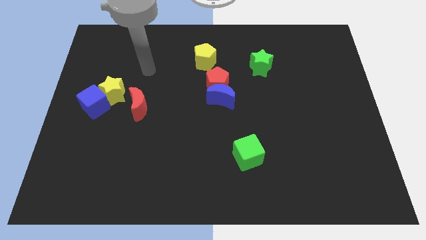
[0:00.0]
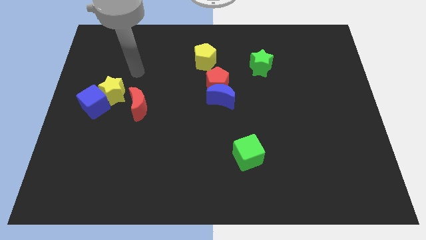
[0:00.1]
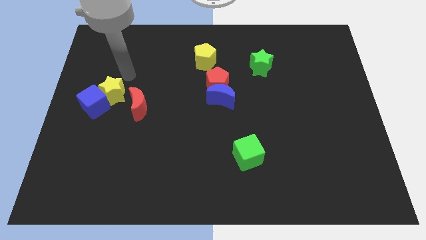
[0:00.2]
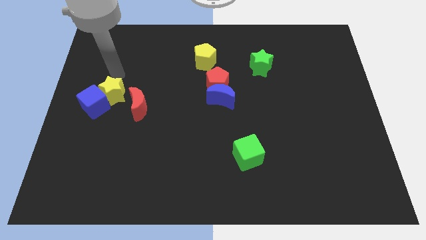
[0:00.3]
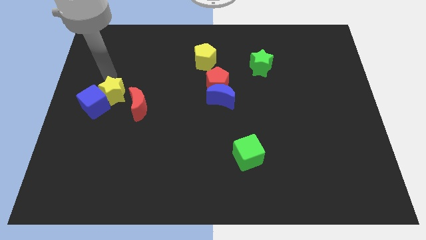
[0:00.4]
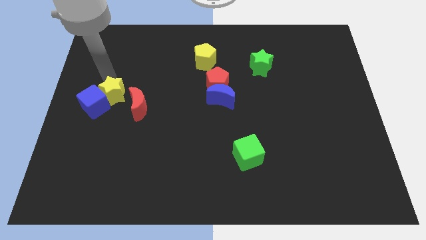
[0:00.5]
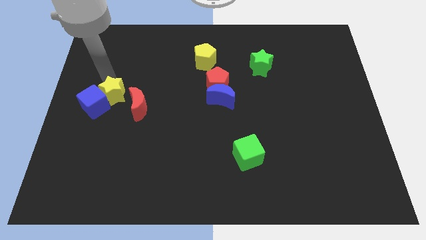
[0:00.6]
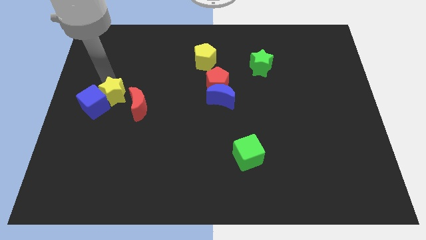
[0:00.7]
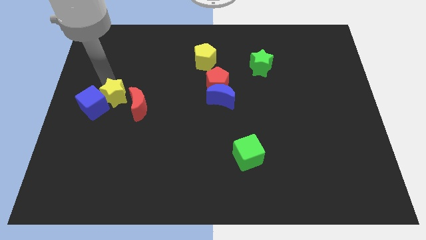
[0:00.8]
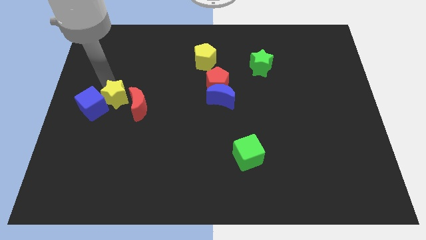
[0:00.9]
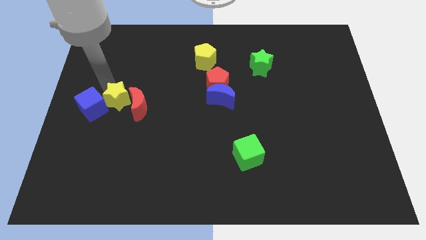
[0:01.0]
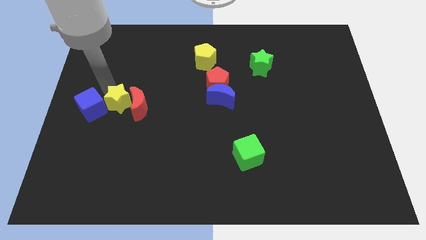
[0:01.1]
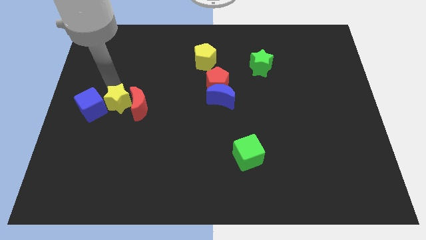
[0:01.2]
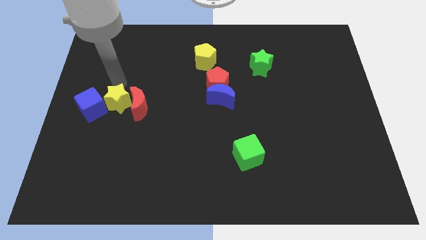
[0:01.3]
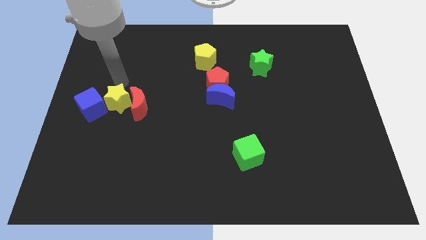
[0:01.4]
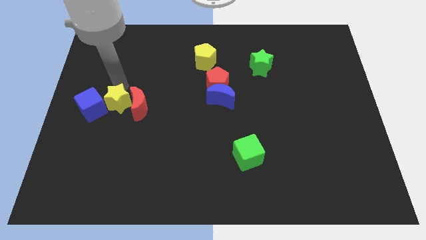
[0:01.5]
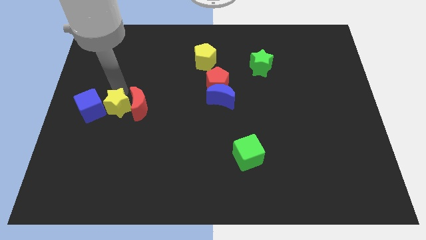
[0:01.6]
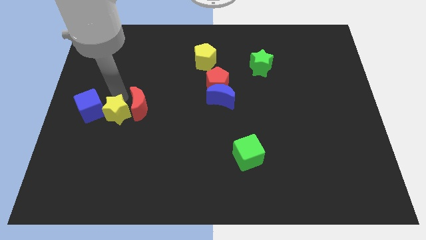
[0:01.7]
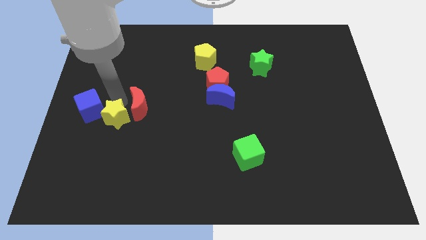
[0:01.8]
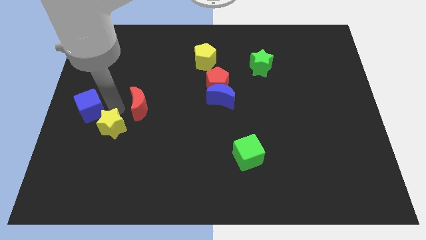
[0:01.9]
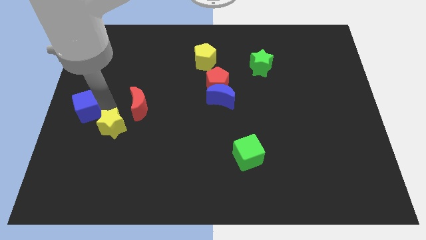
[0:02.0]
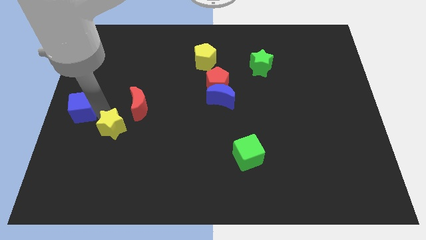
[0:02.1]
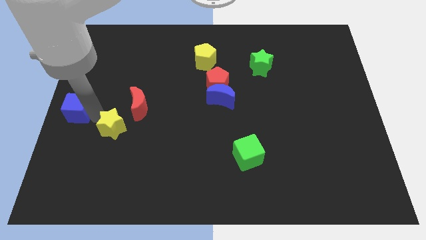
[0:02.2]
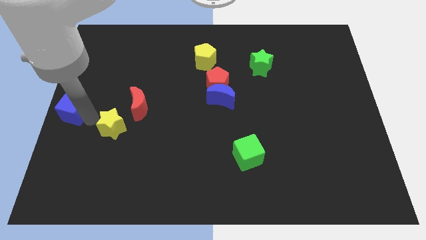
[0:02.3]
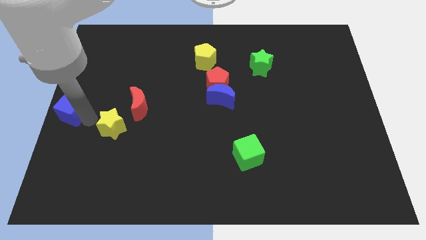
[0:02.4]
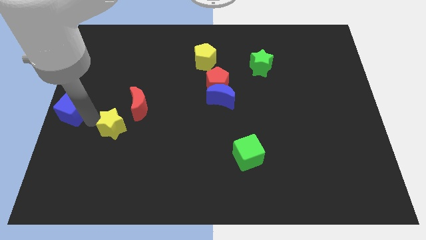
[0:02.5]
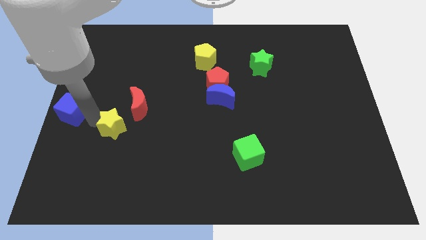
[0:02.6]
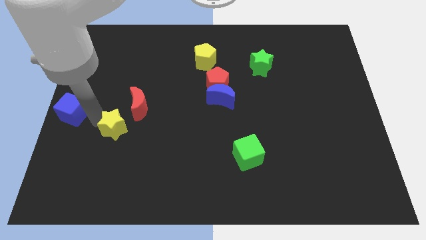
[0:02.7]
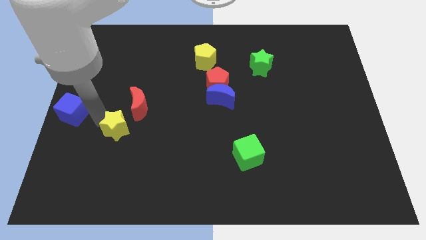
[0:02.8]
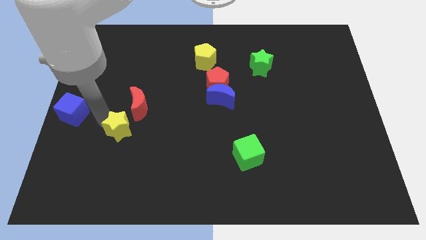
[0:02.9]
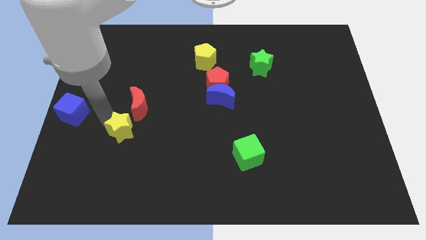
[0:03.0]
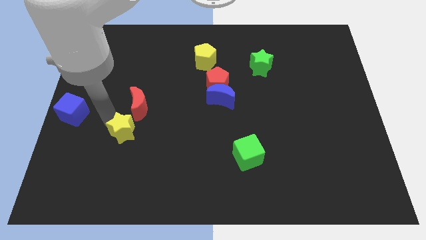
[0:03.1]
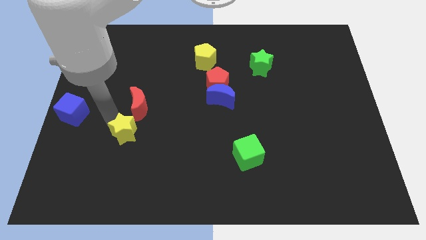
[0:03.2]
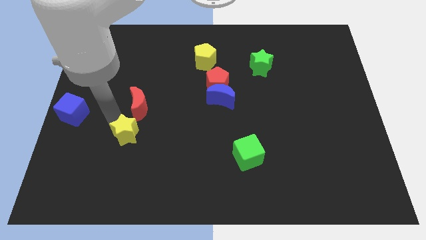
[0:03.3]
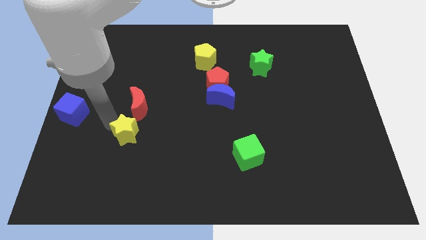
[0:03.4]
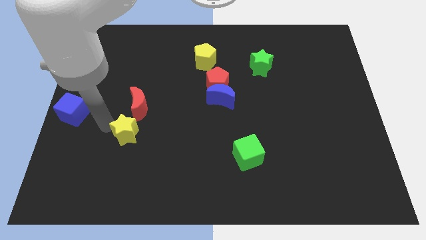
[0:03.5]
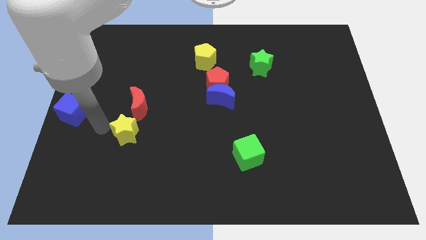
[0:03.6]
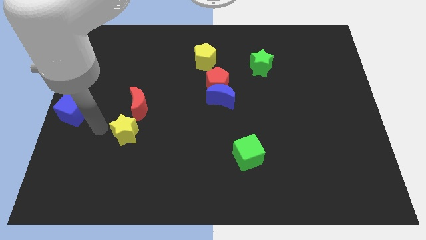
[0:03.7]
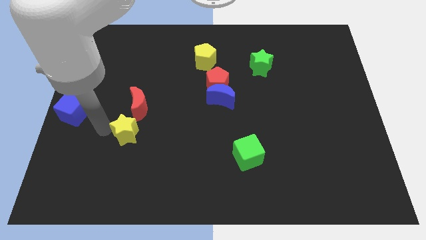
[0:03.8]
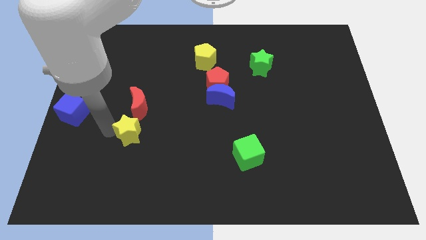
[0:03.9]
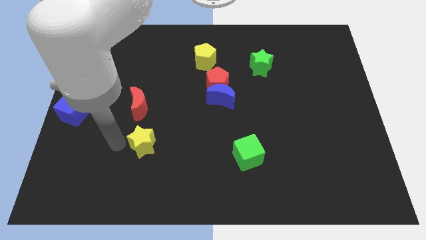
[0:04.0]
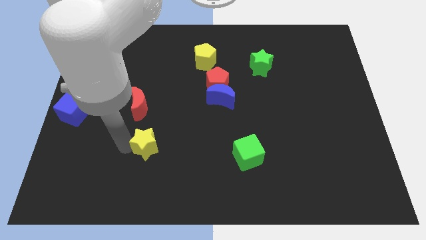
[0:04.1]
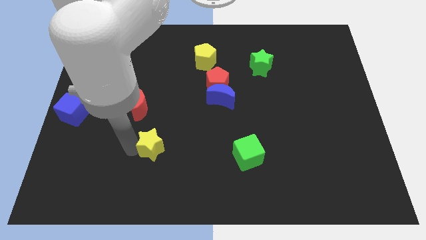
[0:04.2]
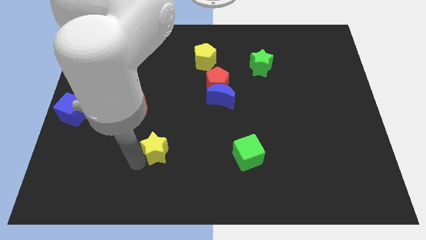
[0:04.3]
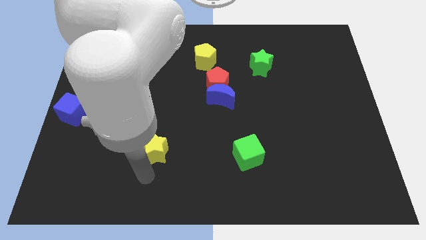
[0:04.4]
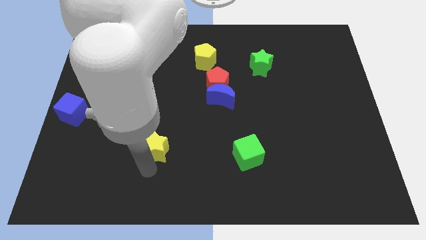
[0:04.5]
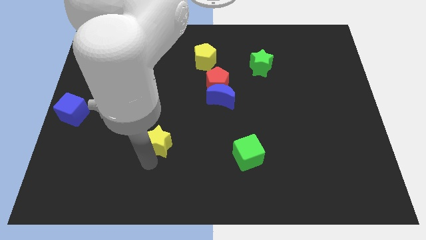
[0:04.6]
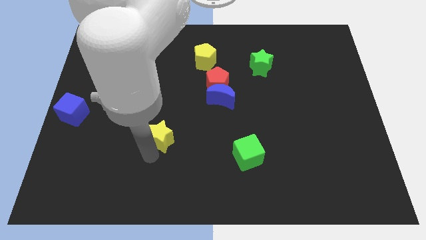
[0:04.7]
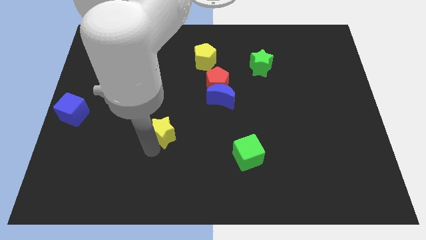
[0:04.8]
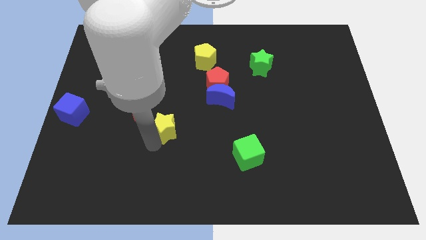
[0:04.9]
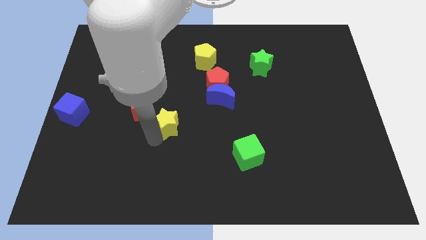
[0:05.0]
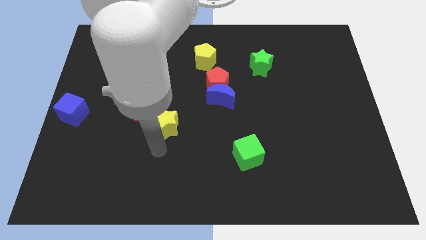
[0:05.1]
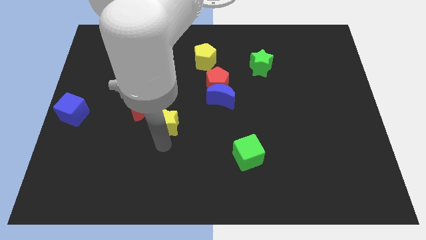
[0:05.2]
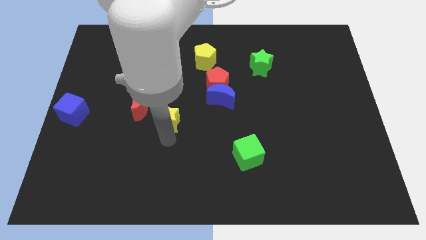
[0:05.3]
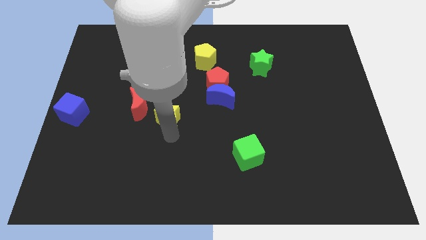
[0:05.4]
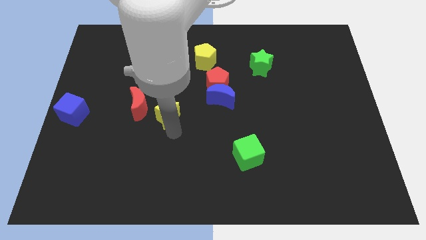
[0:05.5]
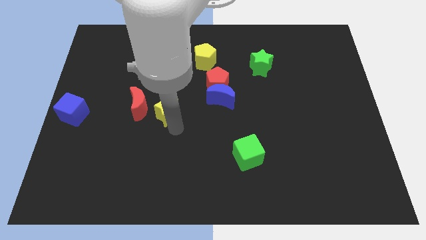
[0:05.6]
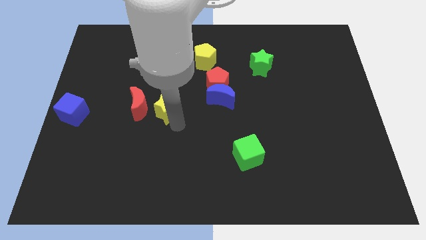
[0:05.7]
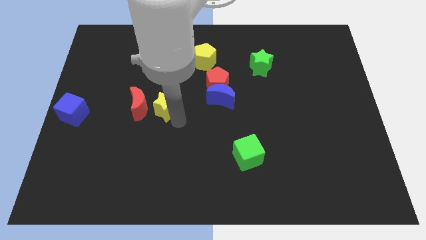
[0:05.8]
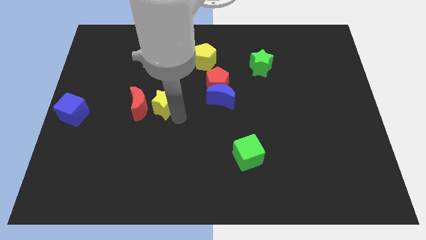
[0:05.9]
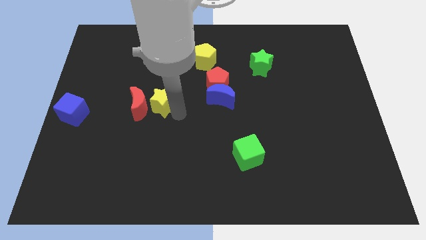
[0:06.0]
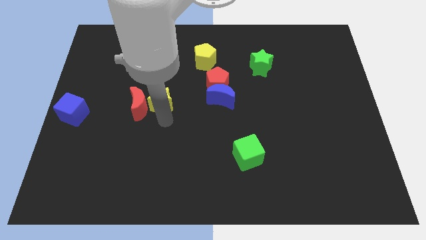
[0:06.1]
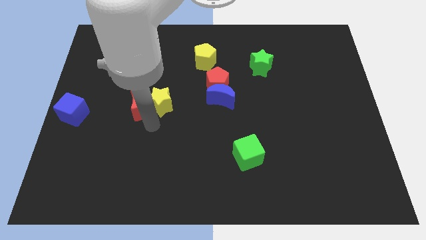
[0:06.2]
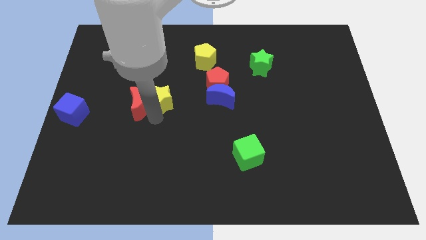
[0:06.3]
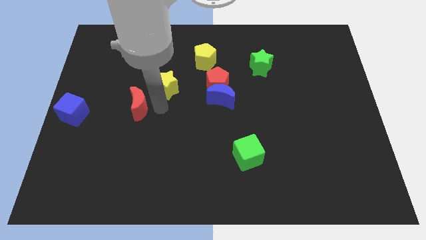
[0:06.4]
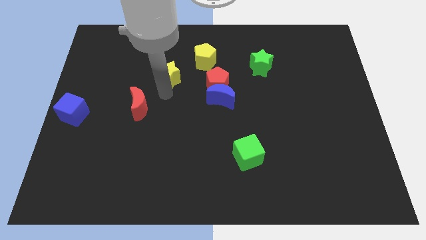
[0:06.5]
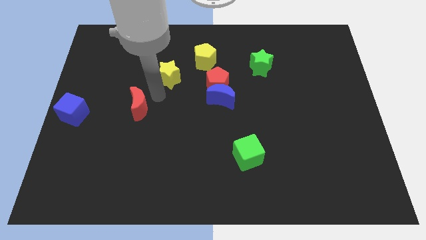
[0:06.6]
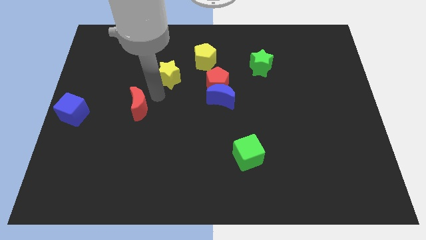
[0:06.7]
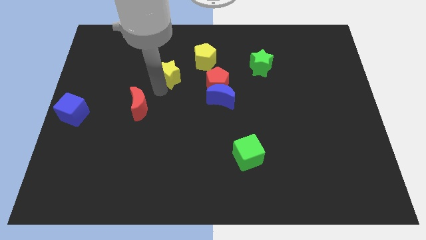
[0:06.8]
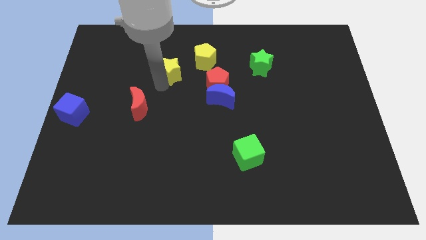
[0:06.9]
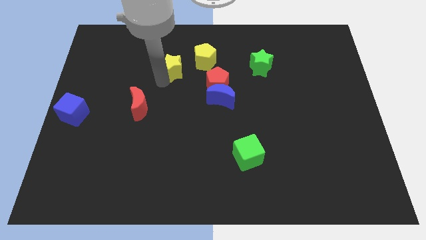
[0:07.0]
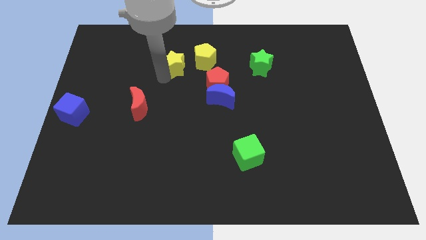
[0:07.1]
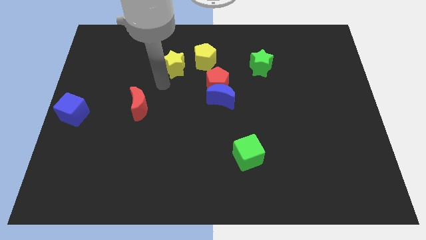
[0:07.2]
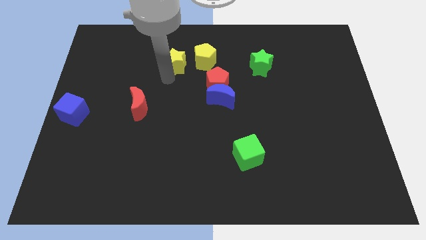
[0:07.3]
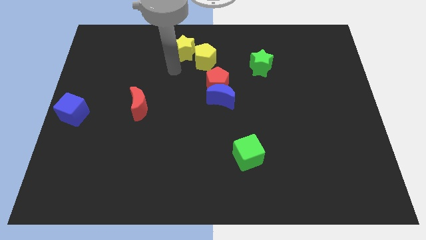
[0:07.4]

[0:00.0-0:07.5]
move the yellow star to the towards your base
